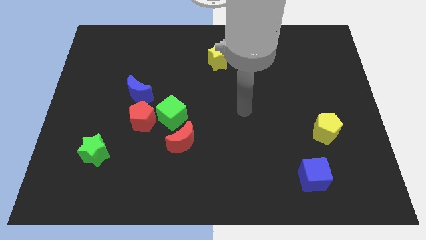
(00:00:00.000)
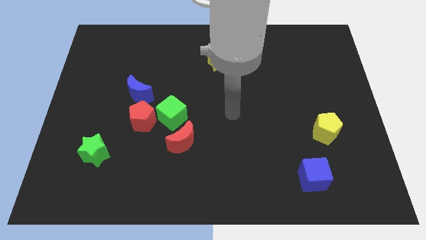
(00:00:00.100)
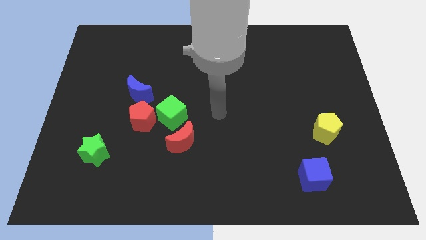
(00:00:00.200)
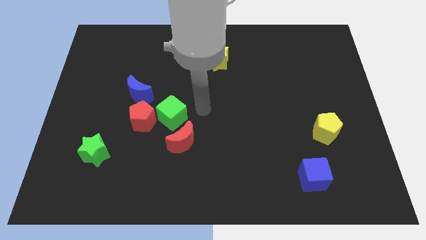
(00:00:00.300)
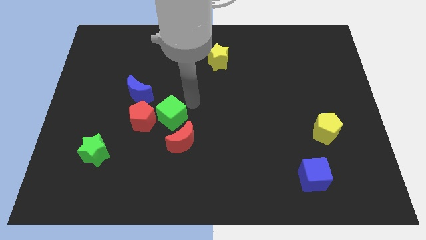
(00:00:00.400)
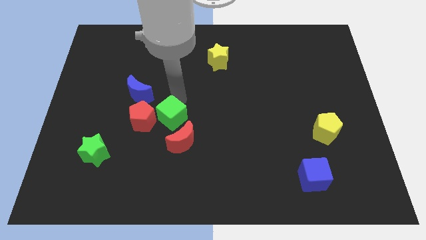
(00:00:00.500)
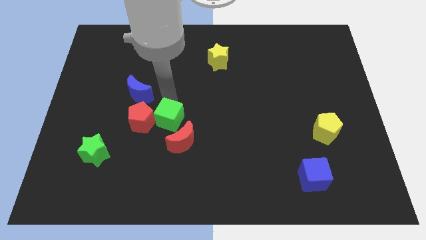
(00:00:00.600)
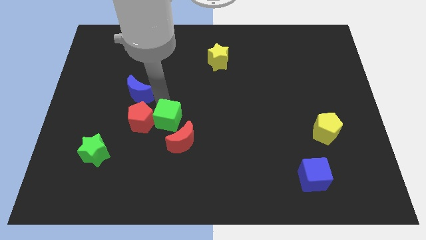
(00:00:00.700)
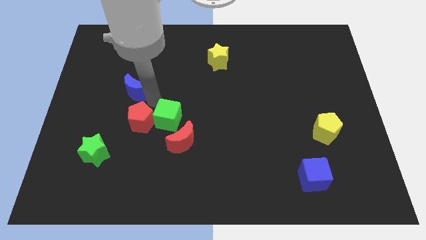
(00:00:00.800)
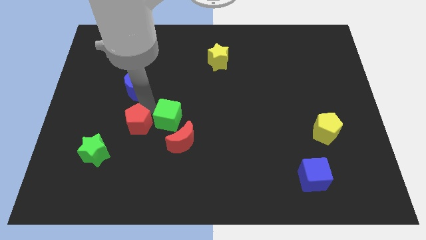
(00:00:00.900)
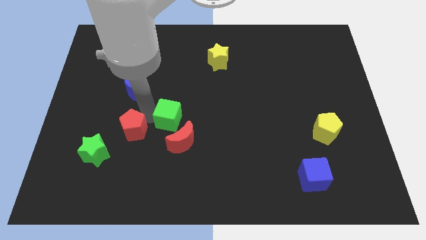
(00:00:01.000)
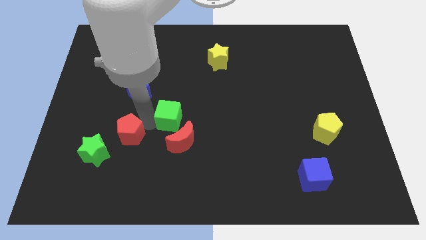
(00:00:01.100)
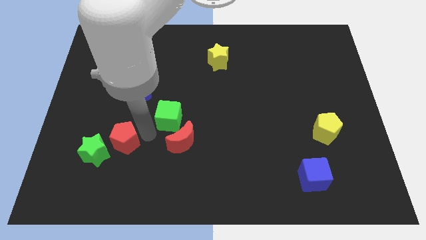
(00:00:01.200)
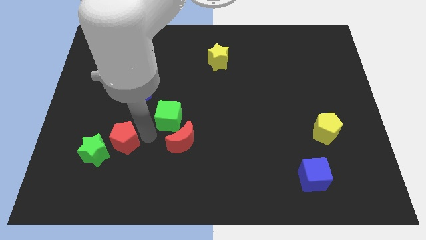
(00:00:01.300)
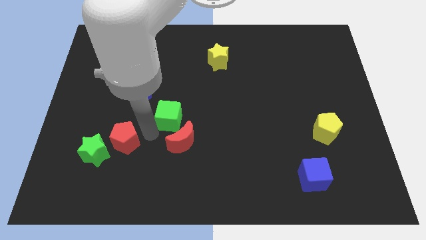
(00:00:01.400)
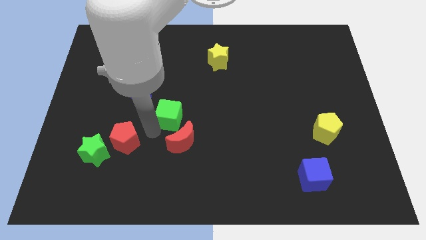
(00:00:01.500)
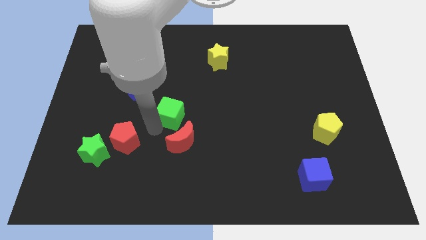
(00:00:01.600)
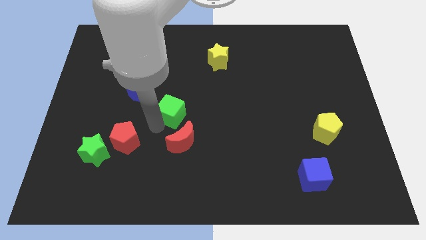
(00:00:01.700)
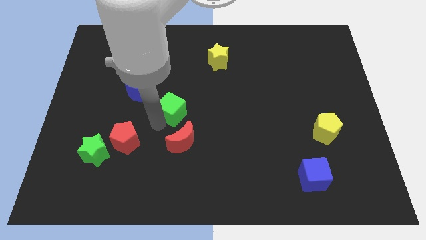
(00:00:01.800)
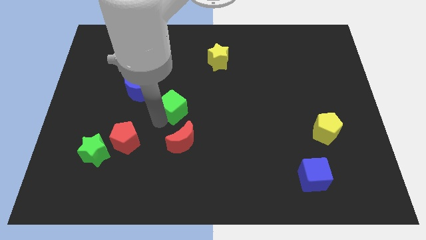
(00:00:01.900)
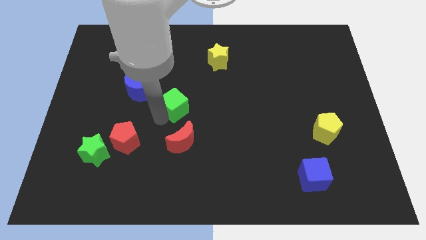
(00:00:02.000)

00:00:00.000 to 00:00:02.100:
move the green cube away from the red pentagon and red moon

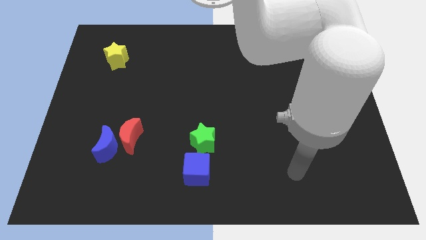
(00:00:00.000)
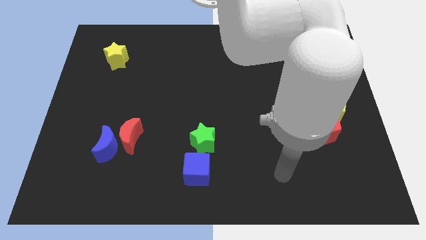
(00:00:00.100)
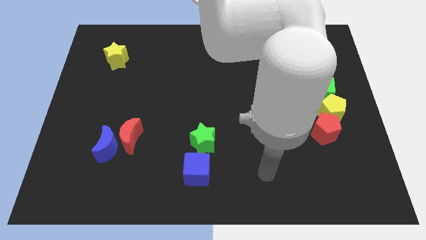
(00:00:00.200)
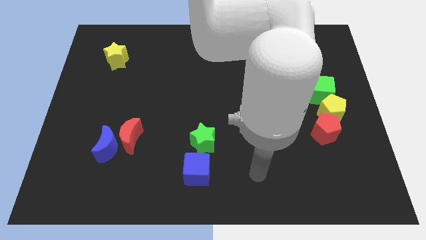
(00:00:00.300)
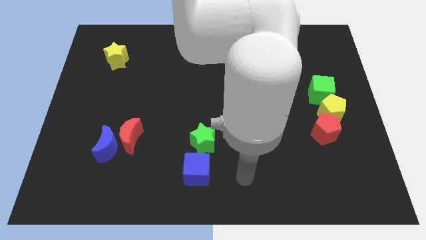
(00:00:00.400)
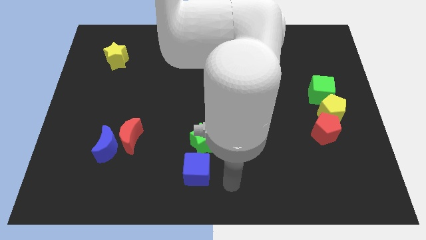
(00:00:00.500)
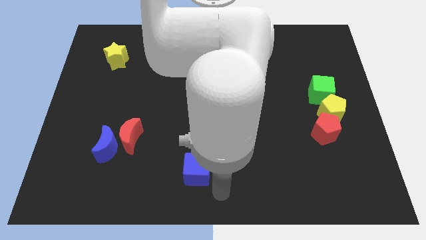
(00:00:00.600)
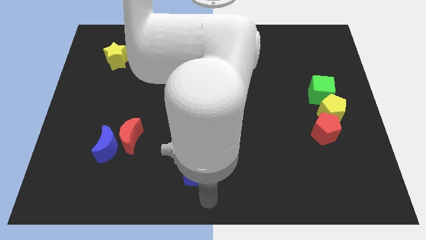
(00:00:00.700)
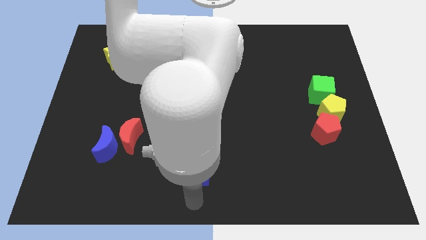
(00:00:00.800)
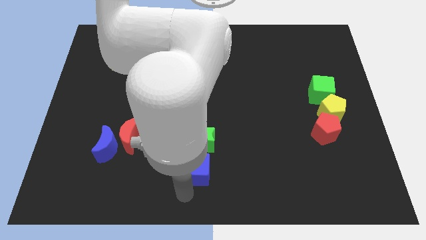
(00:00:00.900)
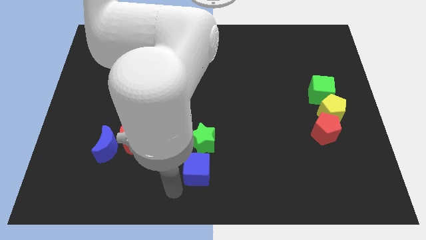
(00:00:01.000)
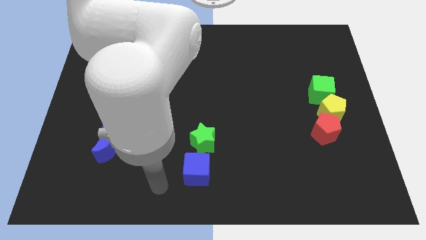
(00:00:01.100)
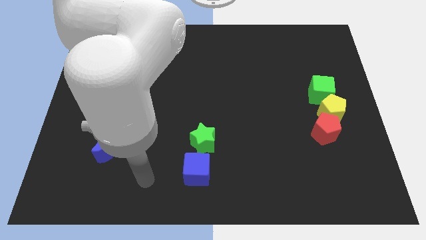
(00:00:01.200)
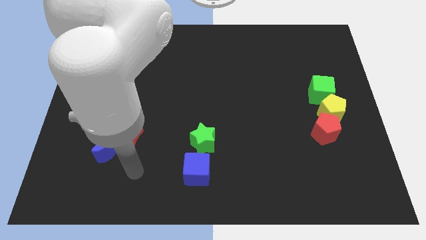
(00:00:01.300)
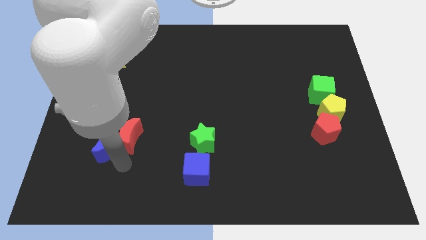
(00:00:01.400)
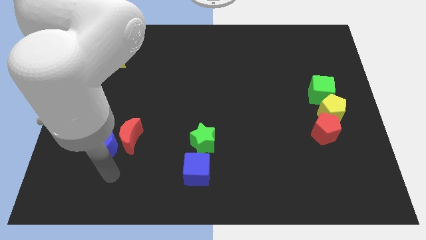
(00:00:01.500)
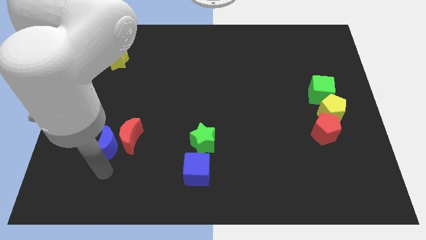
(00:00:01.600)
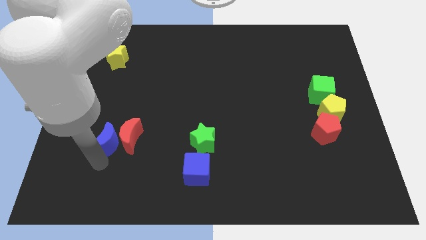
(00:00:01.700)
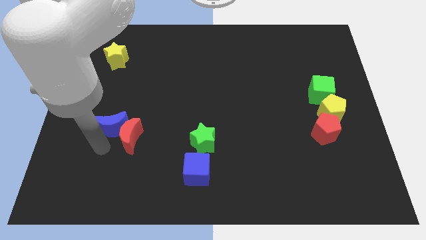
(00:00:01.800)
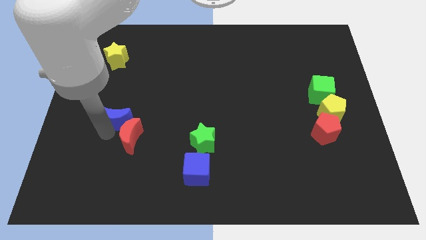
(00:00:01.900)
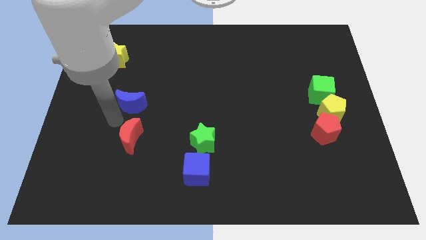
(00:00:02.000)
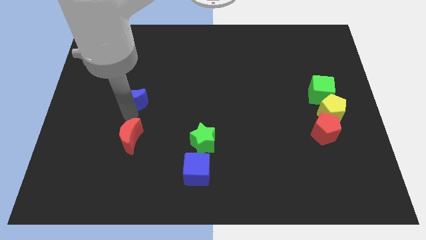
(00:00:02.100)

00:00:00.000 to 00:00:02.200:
separate the red moon from the blue moon

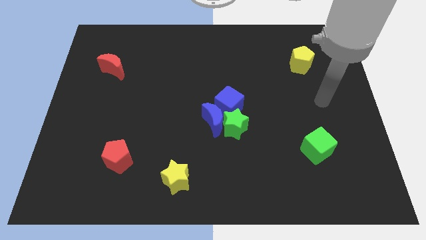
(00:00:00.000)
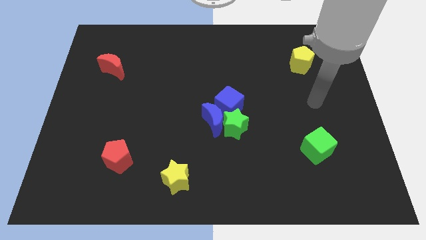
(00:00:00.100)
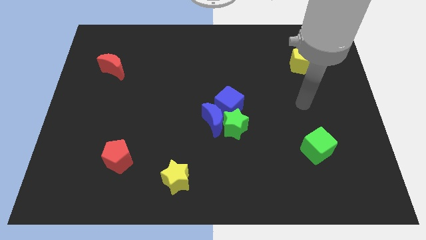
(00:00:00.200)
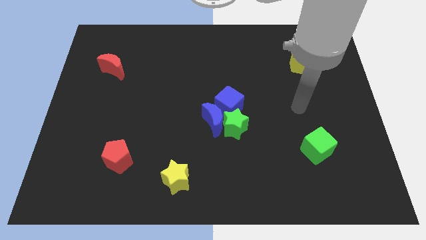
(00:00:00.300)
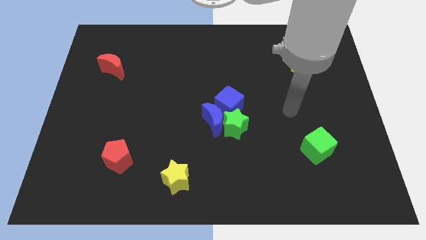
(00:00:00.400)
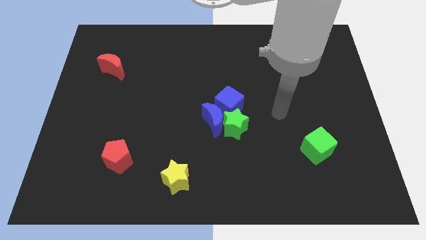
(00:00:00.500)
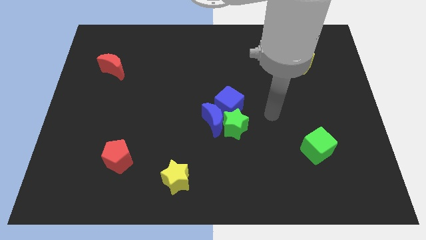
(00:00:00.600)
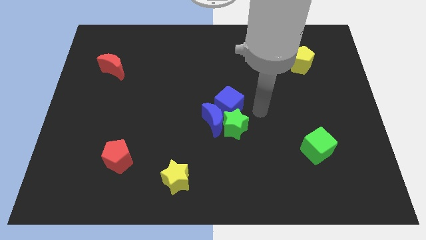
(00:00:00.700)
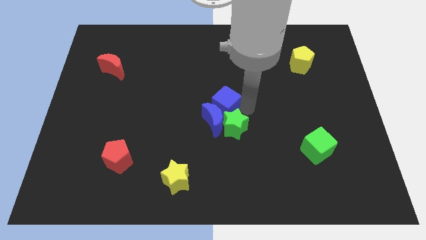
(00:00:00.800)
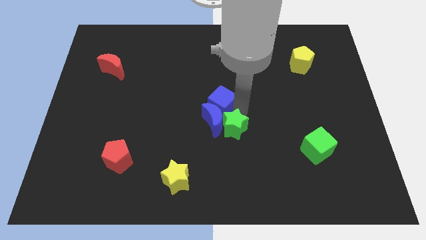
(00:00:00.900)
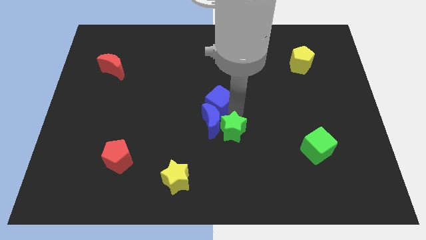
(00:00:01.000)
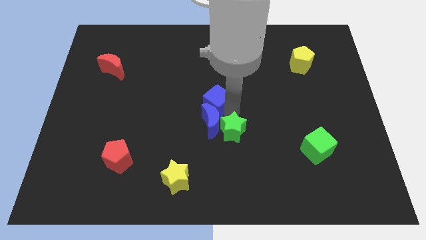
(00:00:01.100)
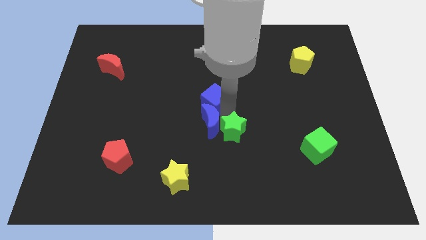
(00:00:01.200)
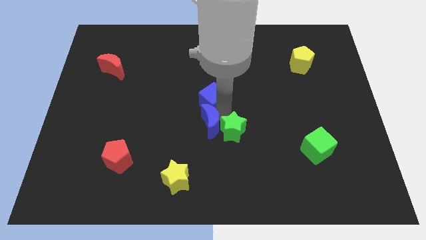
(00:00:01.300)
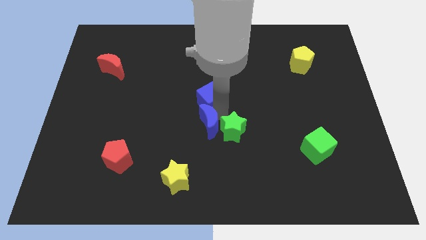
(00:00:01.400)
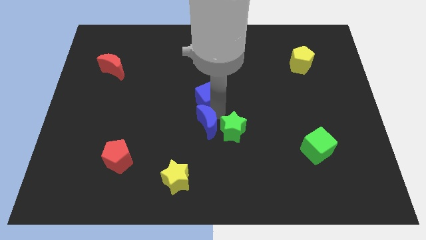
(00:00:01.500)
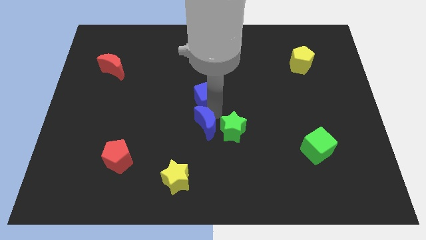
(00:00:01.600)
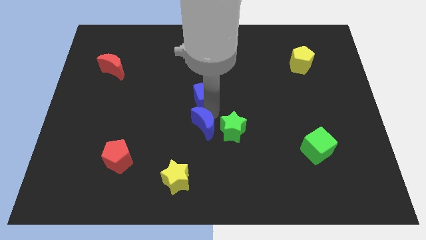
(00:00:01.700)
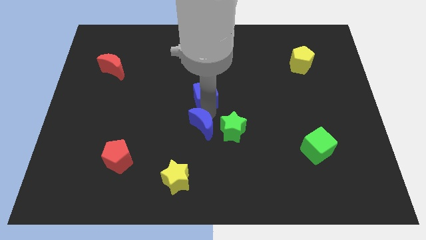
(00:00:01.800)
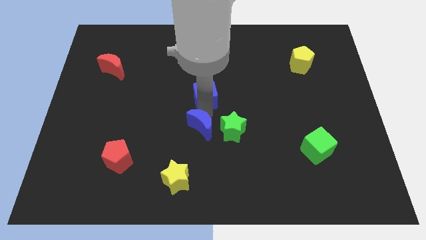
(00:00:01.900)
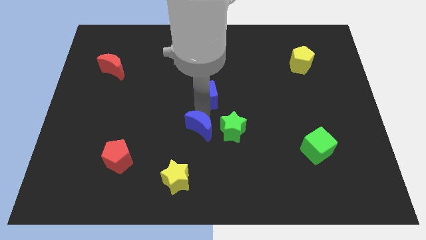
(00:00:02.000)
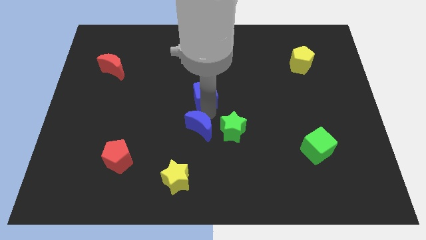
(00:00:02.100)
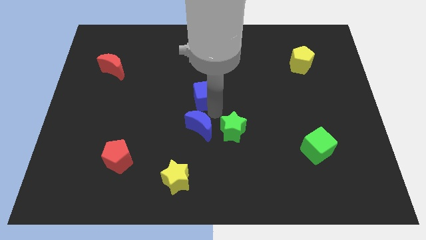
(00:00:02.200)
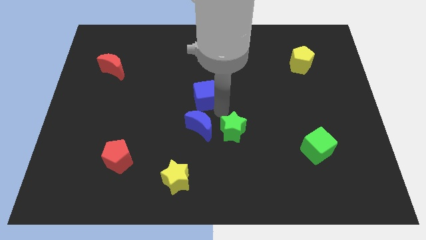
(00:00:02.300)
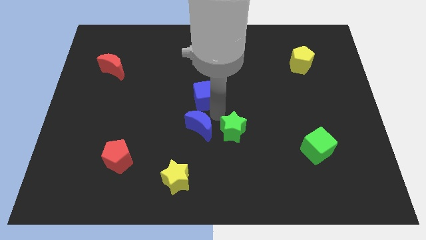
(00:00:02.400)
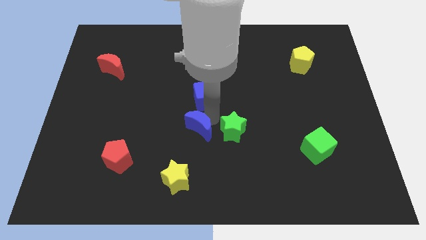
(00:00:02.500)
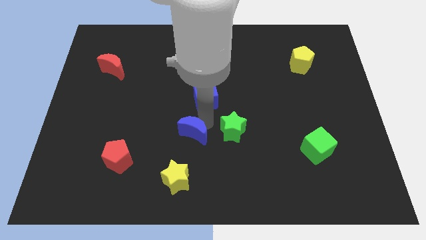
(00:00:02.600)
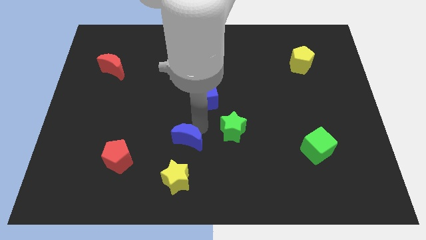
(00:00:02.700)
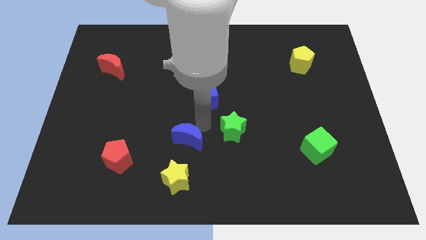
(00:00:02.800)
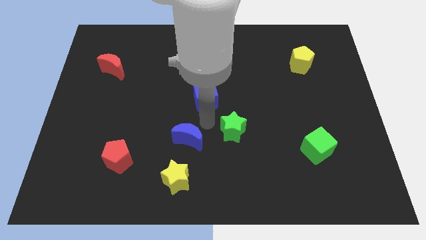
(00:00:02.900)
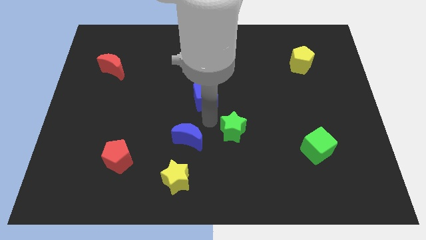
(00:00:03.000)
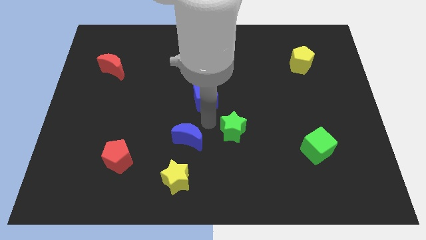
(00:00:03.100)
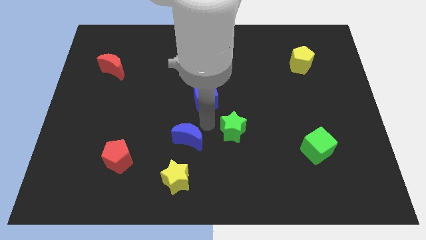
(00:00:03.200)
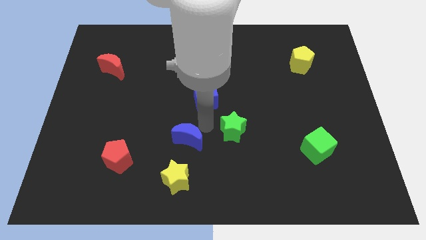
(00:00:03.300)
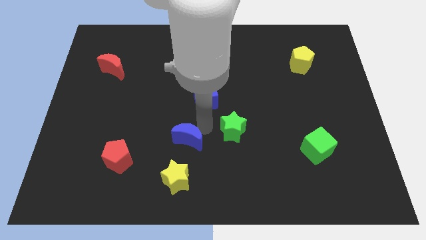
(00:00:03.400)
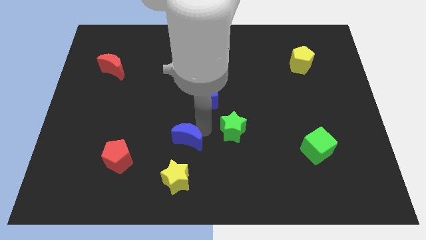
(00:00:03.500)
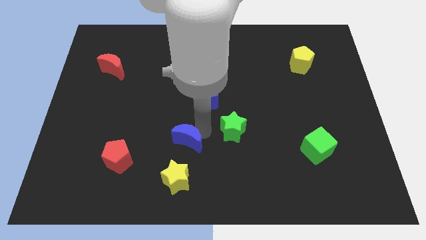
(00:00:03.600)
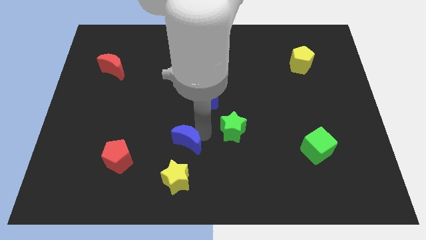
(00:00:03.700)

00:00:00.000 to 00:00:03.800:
separate the blue moon from the green star and blue cube

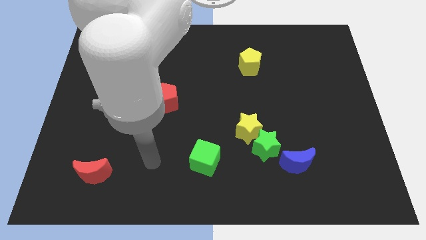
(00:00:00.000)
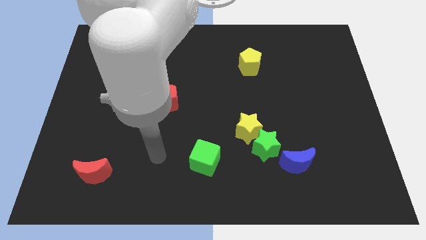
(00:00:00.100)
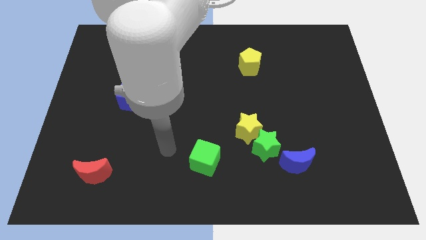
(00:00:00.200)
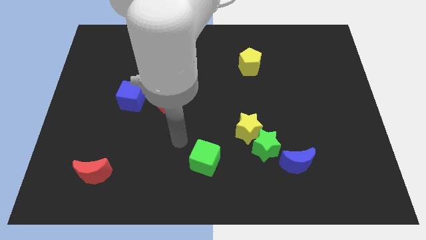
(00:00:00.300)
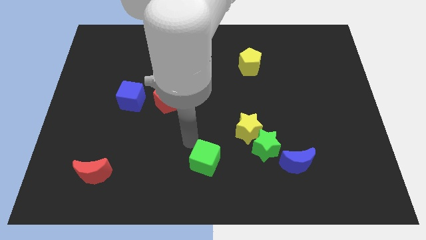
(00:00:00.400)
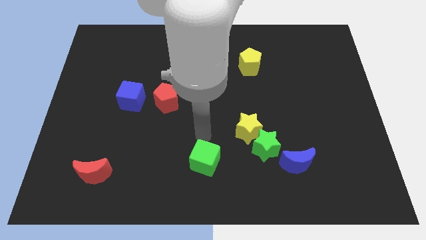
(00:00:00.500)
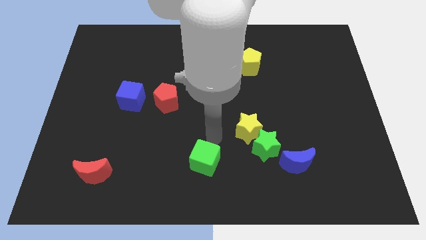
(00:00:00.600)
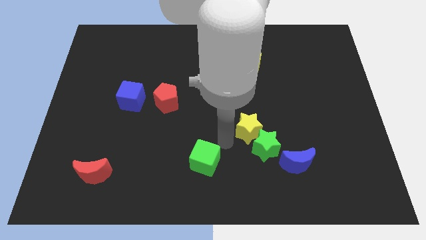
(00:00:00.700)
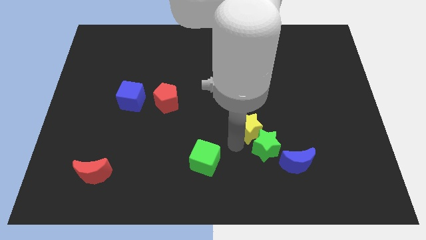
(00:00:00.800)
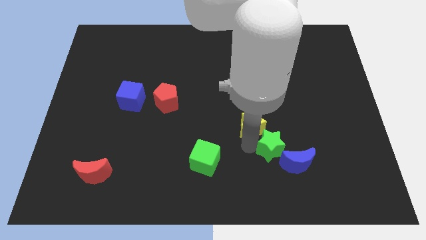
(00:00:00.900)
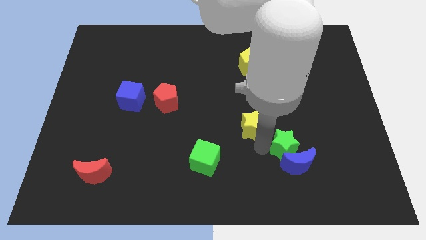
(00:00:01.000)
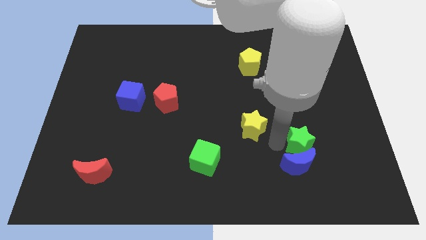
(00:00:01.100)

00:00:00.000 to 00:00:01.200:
move the yellow star away from the green star
